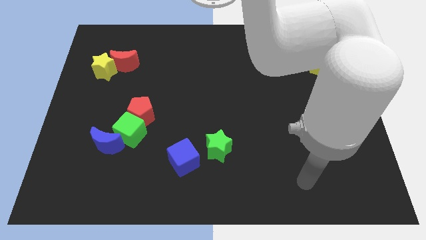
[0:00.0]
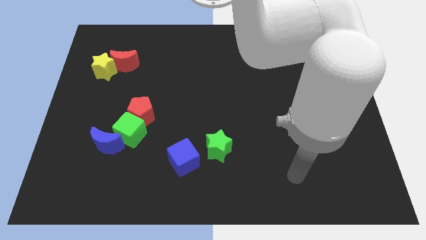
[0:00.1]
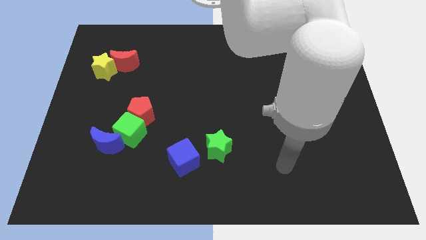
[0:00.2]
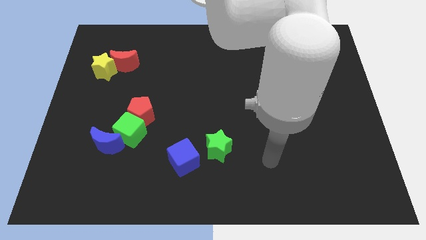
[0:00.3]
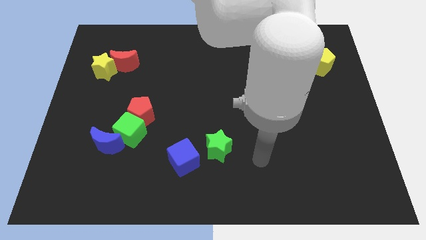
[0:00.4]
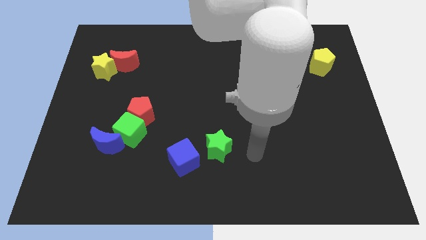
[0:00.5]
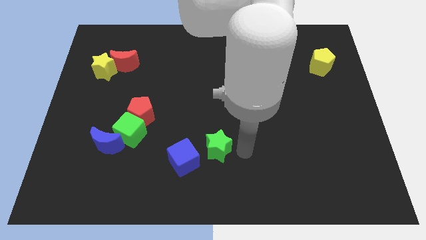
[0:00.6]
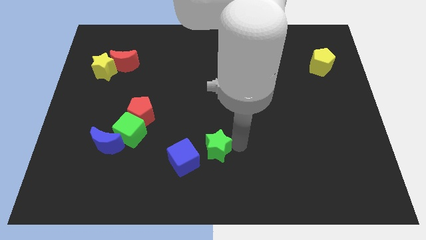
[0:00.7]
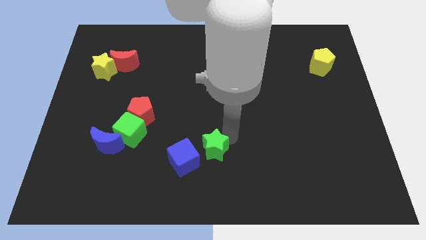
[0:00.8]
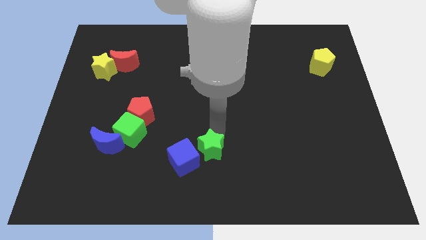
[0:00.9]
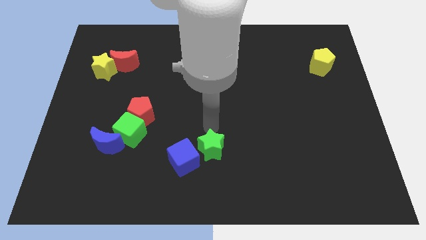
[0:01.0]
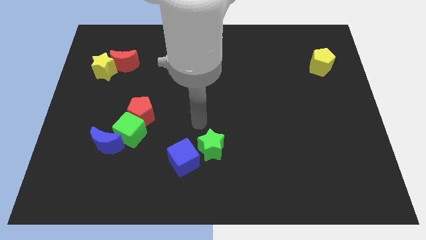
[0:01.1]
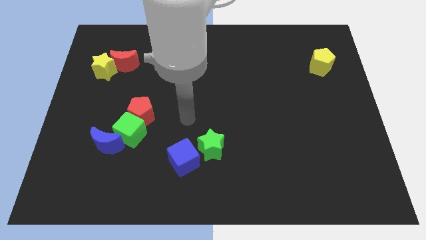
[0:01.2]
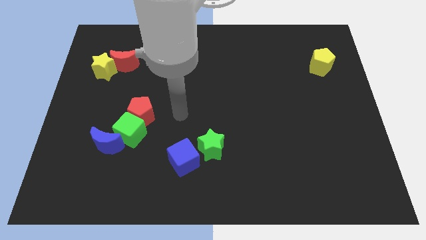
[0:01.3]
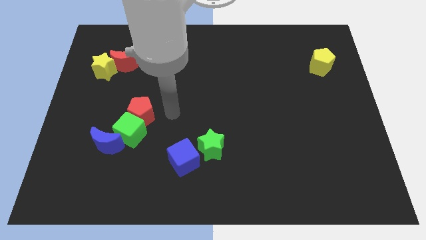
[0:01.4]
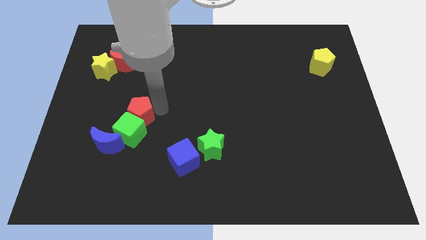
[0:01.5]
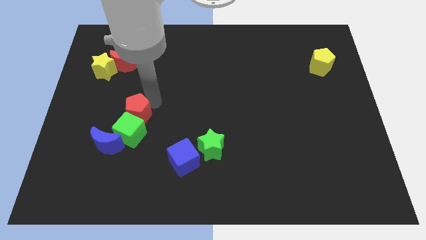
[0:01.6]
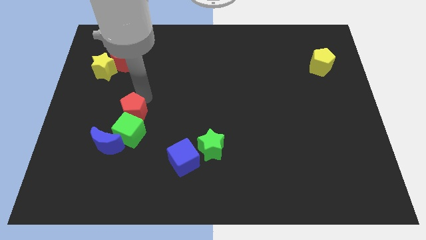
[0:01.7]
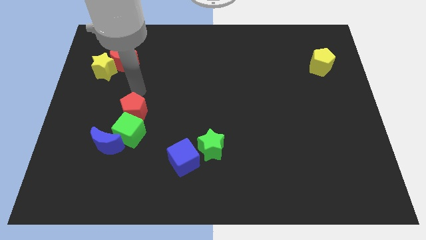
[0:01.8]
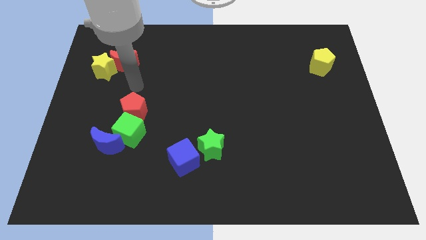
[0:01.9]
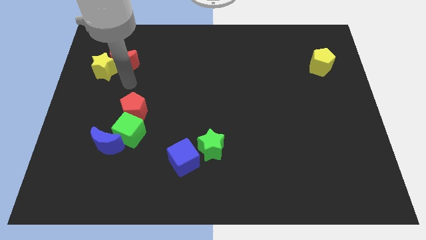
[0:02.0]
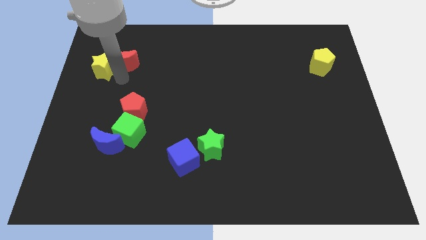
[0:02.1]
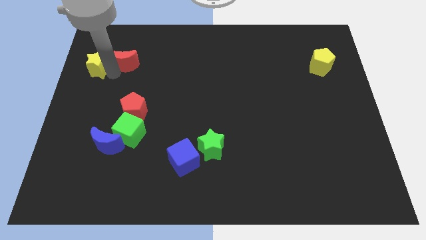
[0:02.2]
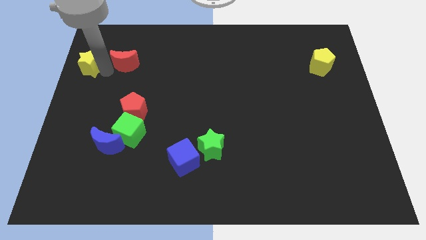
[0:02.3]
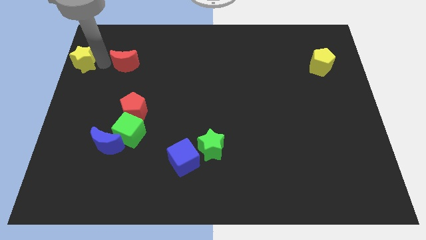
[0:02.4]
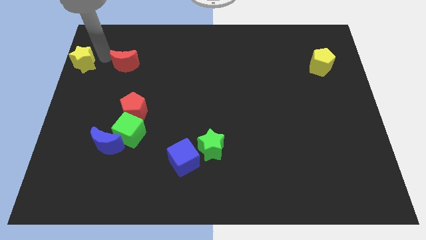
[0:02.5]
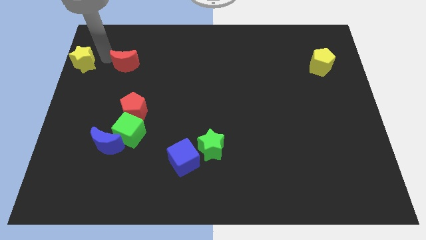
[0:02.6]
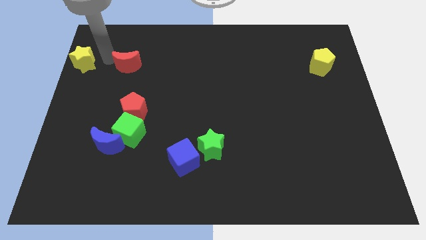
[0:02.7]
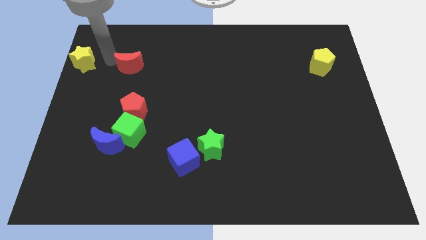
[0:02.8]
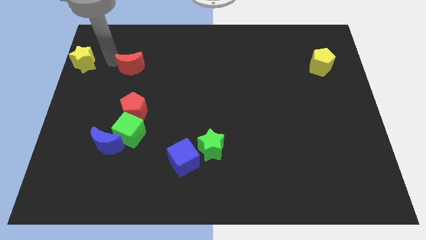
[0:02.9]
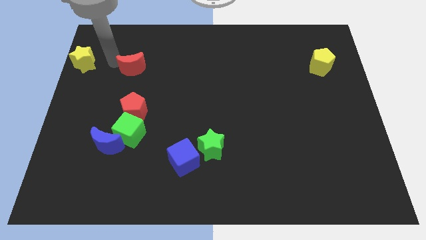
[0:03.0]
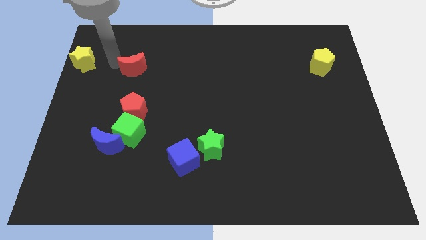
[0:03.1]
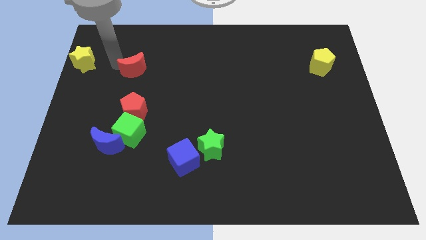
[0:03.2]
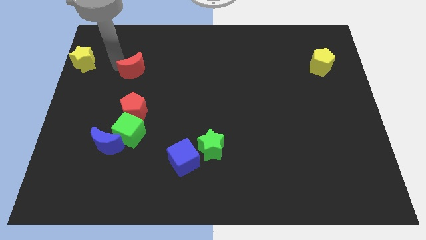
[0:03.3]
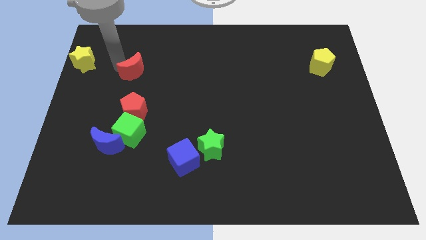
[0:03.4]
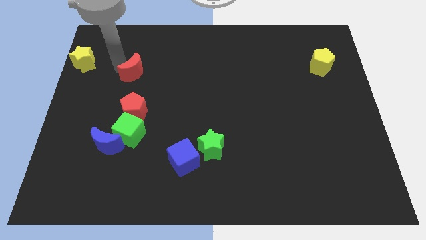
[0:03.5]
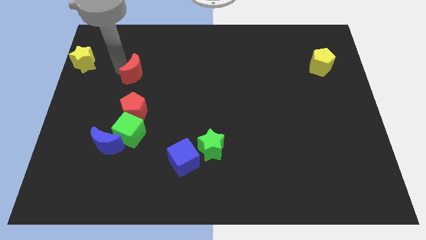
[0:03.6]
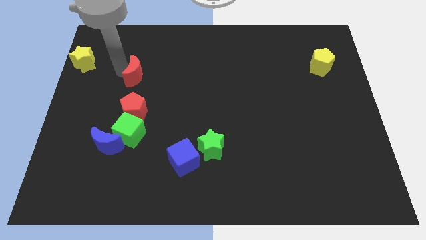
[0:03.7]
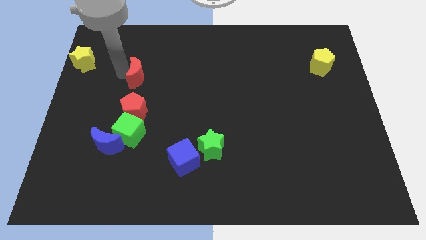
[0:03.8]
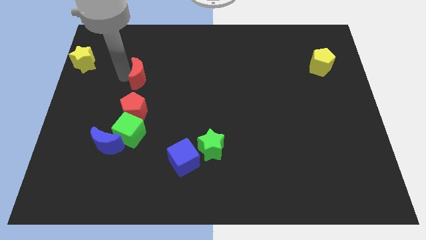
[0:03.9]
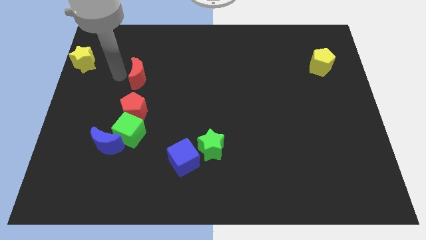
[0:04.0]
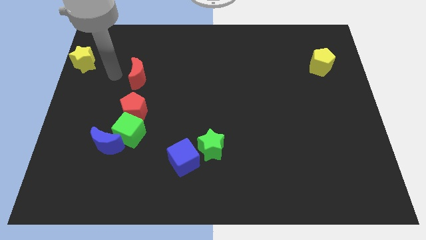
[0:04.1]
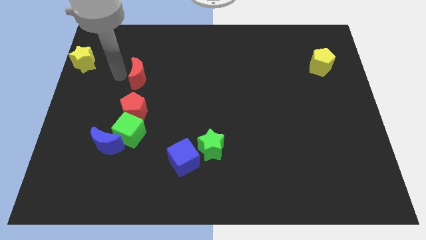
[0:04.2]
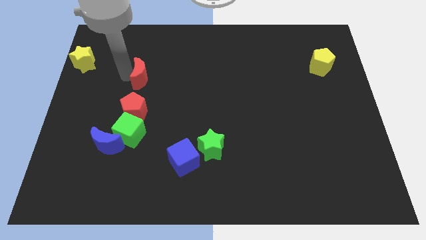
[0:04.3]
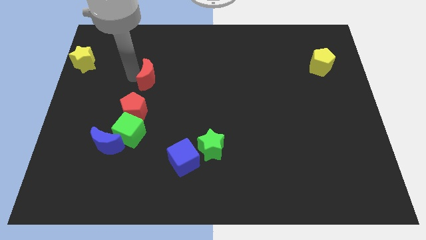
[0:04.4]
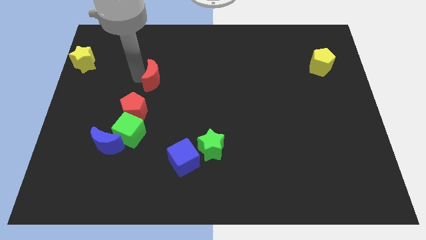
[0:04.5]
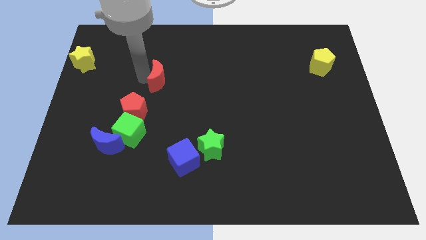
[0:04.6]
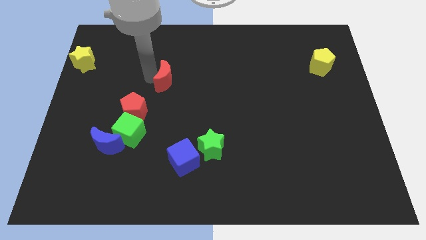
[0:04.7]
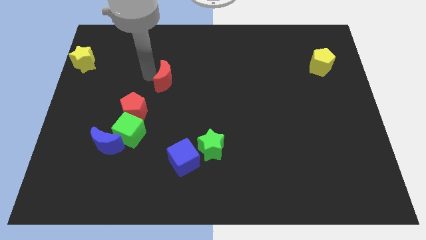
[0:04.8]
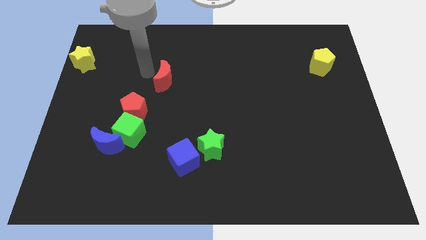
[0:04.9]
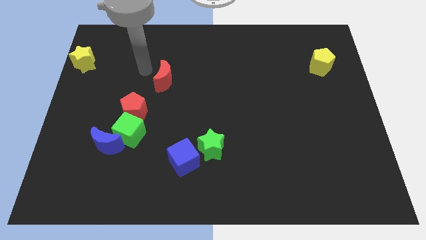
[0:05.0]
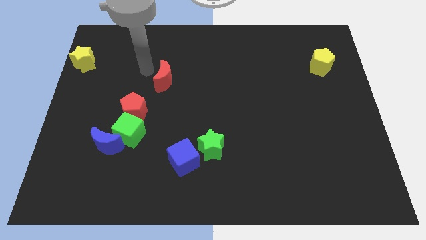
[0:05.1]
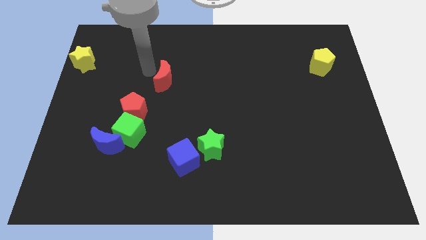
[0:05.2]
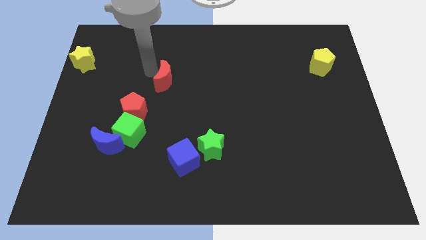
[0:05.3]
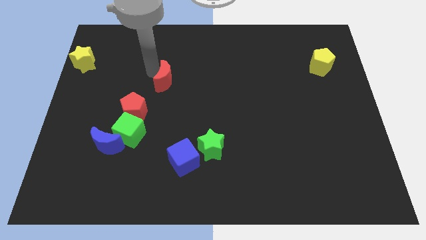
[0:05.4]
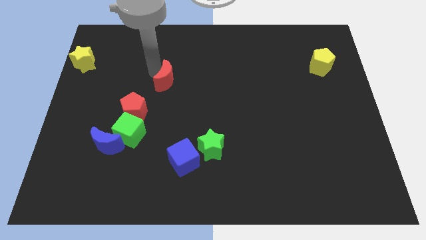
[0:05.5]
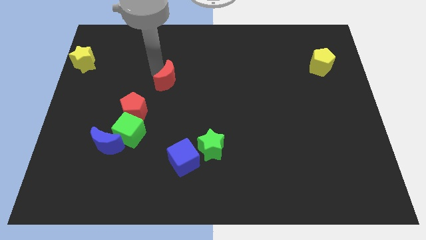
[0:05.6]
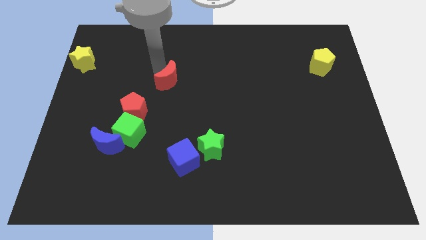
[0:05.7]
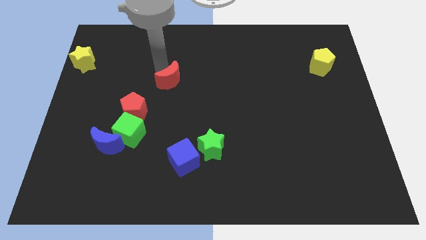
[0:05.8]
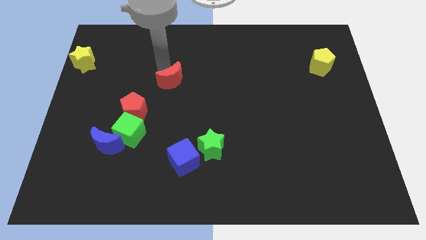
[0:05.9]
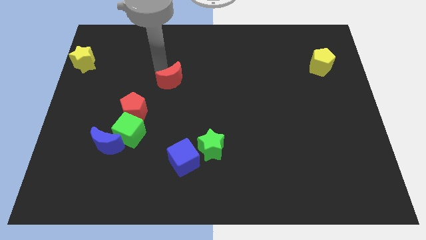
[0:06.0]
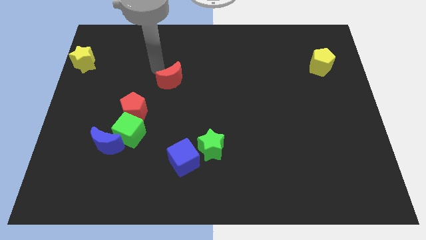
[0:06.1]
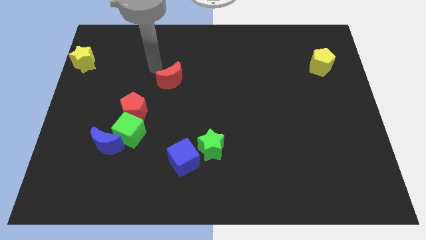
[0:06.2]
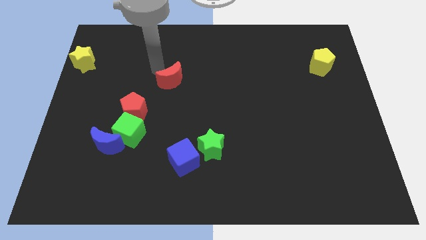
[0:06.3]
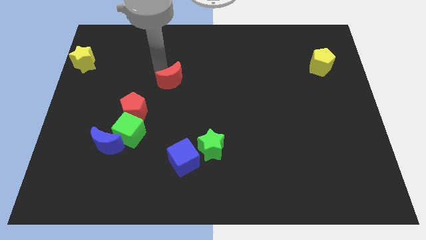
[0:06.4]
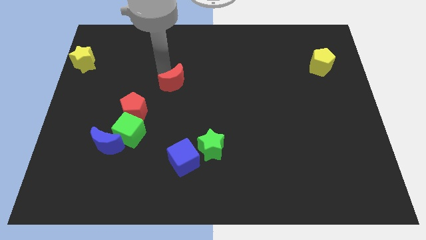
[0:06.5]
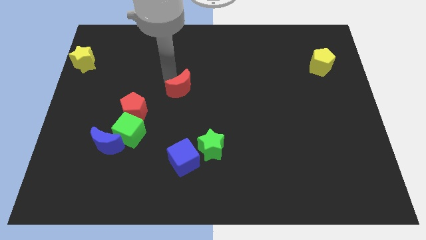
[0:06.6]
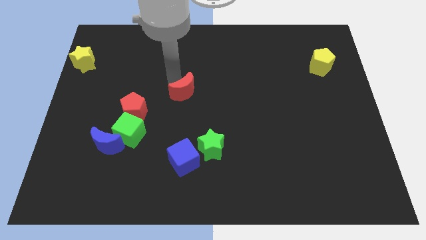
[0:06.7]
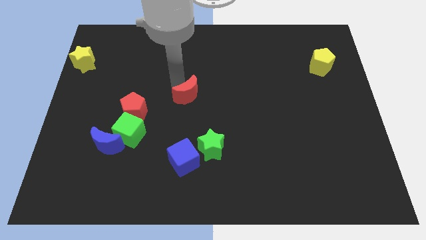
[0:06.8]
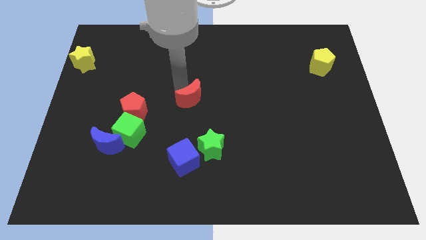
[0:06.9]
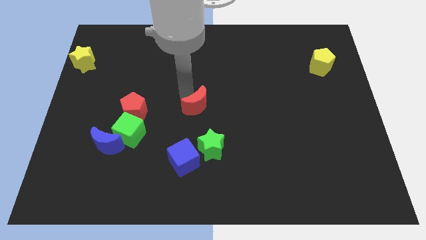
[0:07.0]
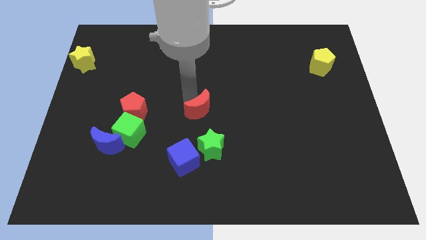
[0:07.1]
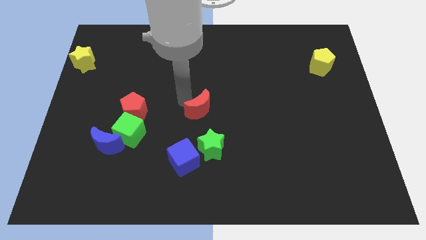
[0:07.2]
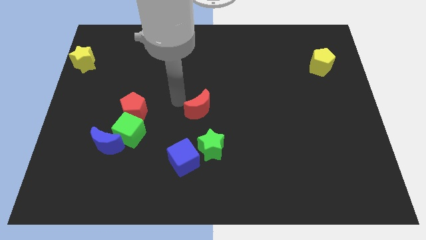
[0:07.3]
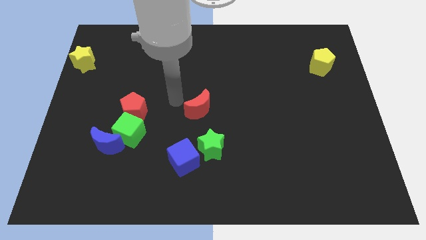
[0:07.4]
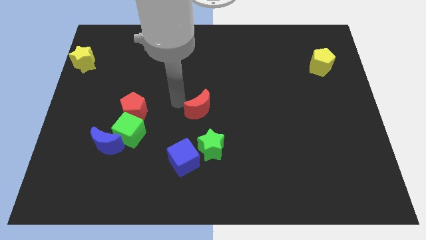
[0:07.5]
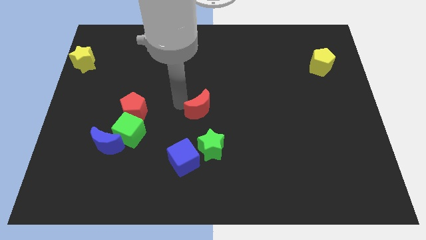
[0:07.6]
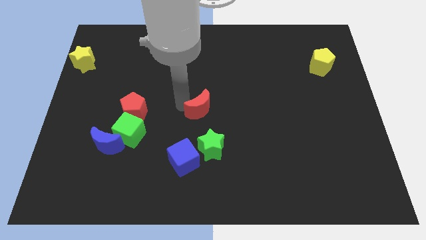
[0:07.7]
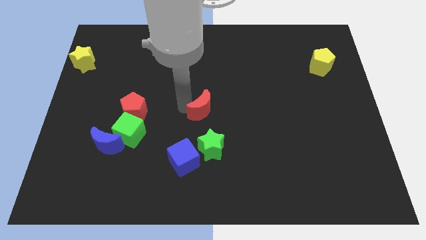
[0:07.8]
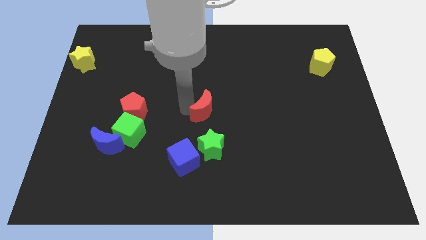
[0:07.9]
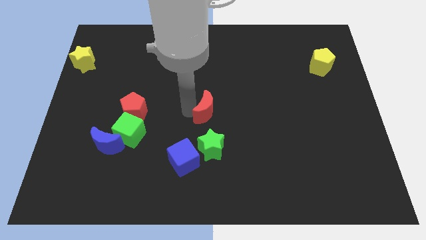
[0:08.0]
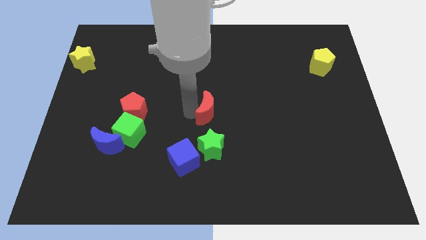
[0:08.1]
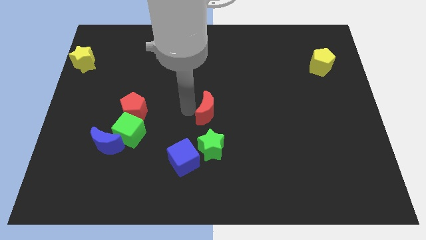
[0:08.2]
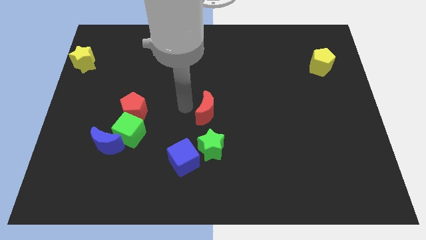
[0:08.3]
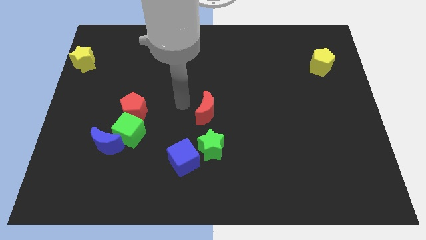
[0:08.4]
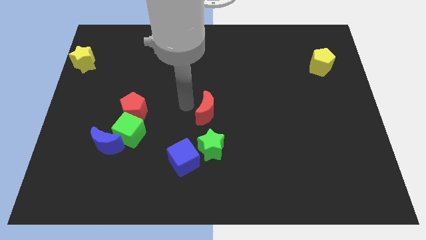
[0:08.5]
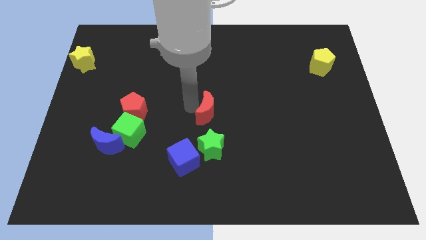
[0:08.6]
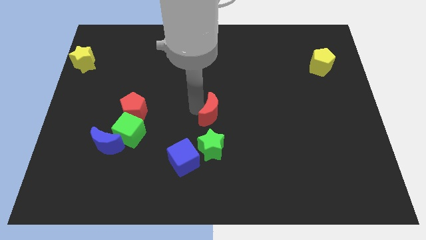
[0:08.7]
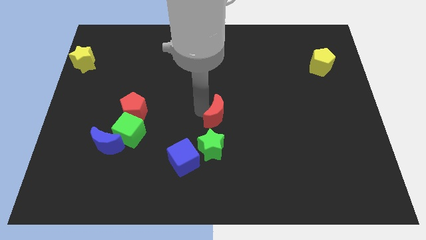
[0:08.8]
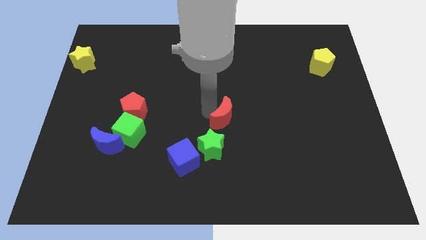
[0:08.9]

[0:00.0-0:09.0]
put the red moon to the top right of the green star
